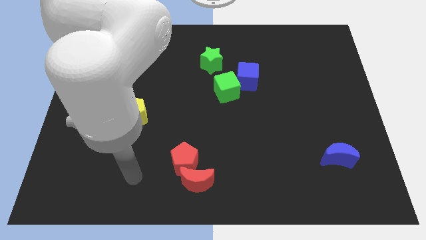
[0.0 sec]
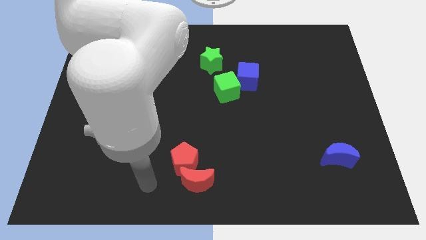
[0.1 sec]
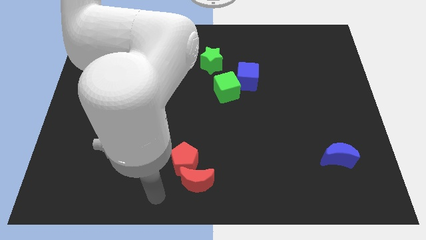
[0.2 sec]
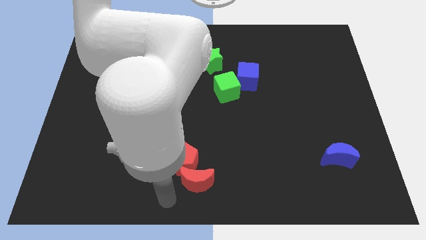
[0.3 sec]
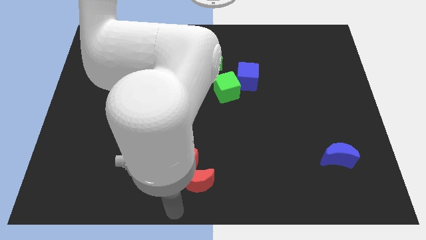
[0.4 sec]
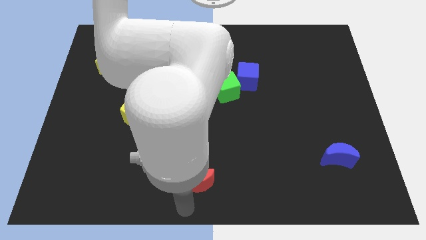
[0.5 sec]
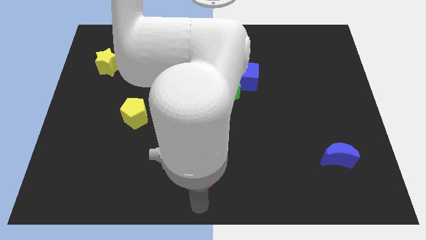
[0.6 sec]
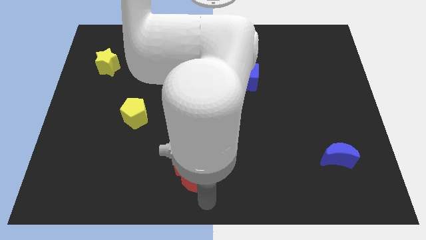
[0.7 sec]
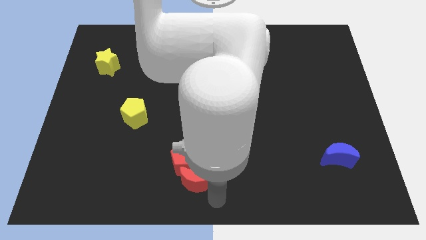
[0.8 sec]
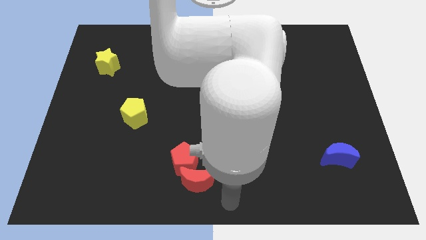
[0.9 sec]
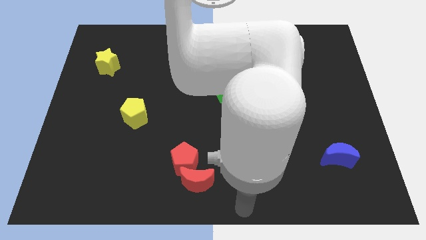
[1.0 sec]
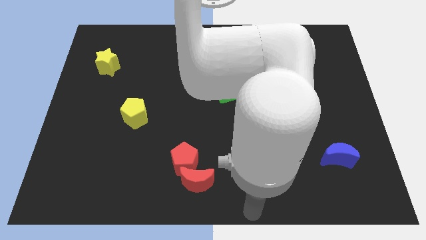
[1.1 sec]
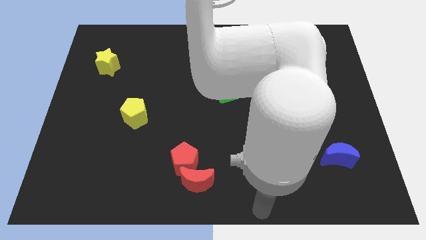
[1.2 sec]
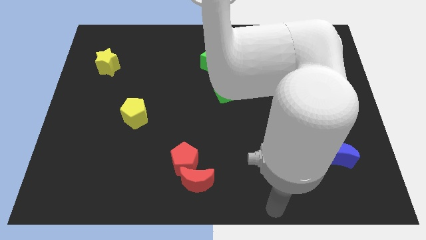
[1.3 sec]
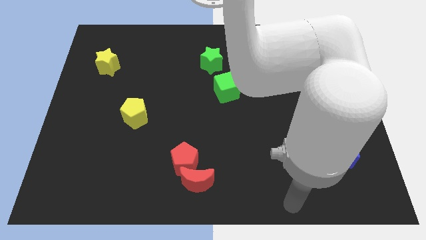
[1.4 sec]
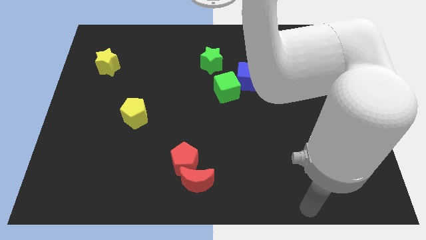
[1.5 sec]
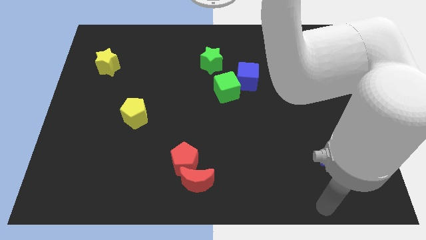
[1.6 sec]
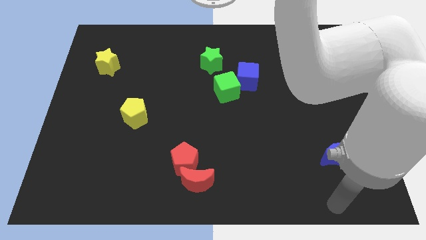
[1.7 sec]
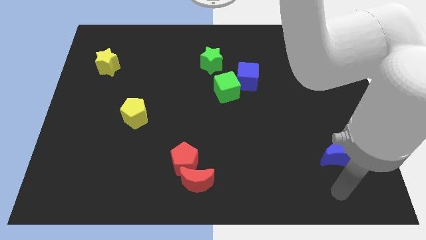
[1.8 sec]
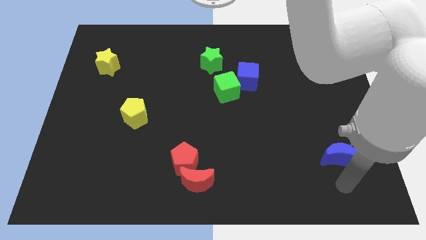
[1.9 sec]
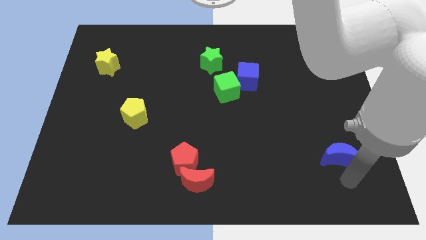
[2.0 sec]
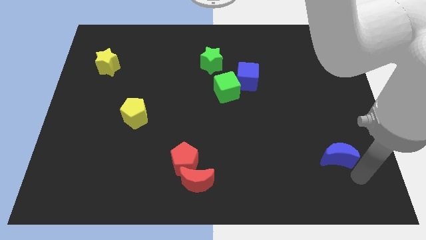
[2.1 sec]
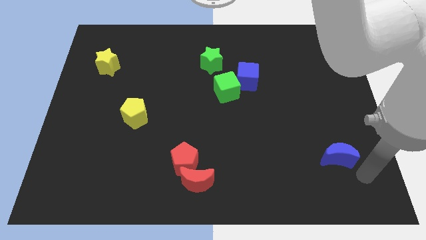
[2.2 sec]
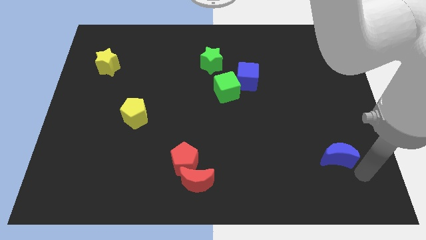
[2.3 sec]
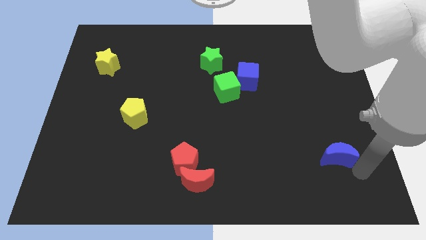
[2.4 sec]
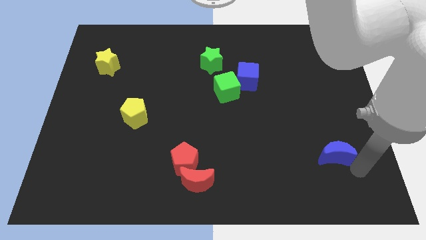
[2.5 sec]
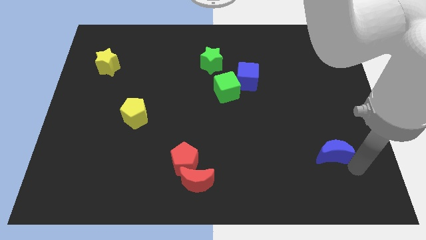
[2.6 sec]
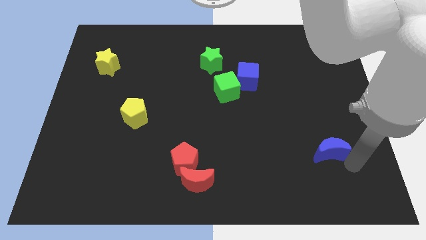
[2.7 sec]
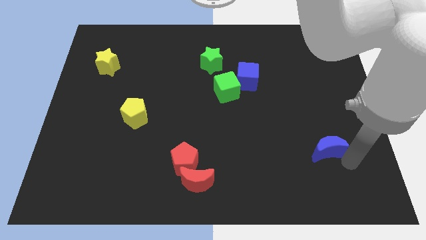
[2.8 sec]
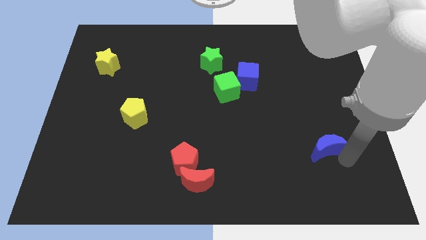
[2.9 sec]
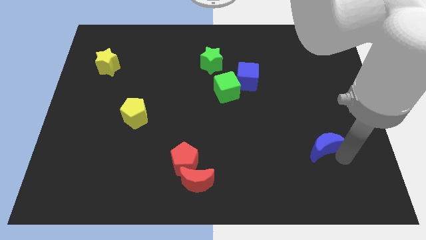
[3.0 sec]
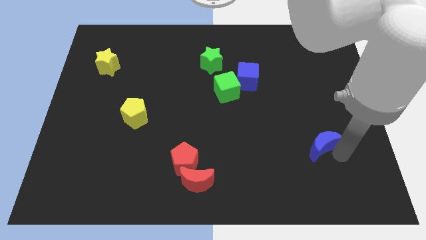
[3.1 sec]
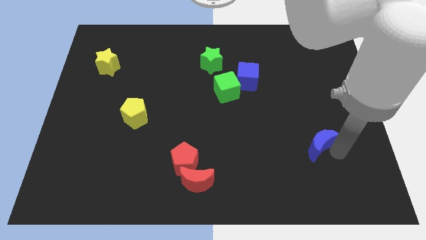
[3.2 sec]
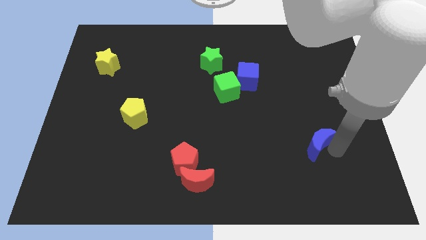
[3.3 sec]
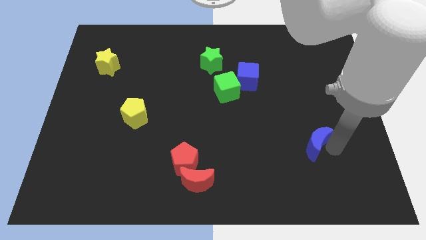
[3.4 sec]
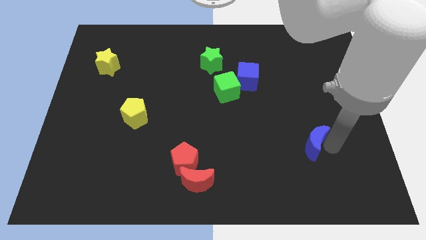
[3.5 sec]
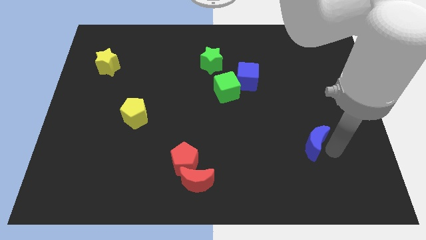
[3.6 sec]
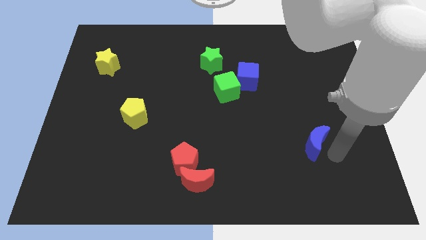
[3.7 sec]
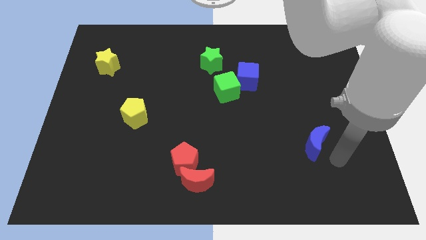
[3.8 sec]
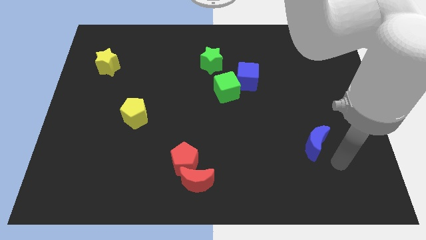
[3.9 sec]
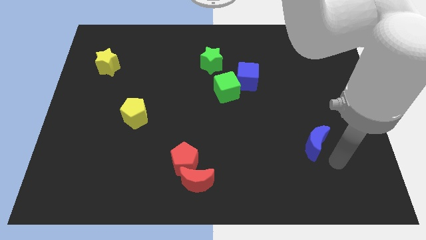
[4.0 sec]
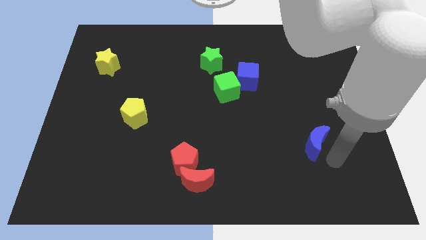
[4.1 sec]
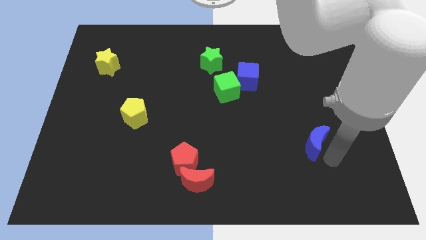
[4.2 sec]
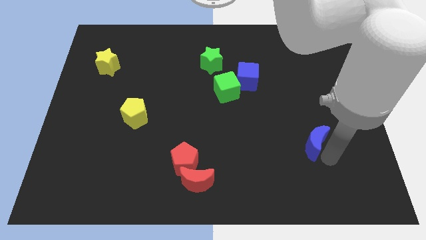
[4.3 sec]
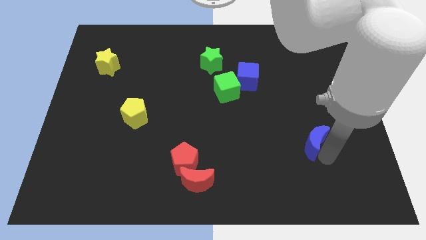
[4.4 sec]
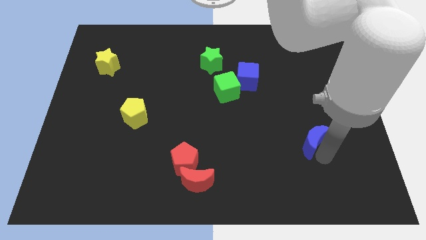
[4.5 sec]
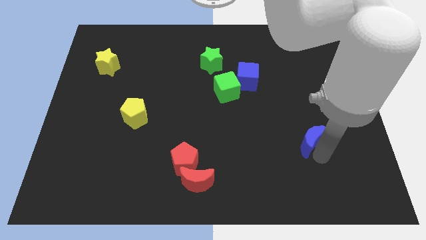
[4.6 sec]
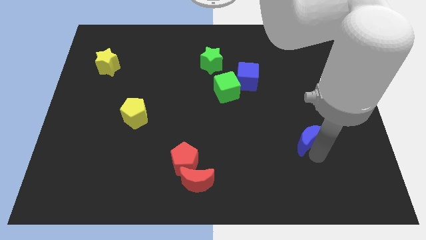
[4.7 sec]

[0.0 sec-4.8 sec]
push the blue moon slightly upwards and left

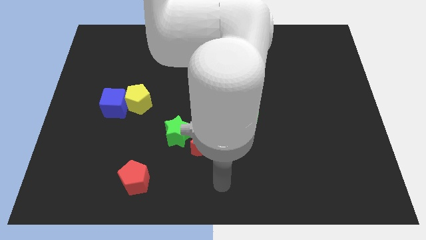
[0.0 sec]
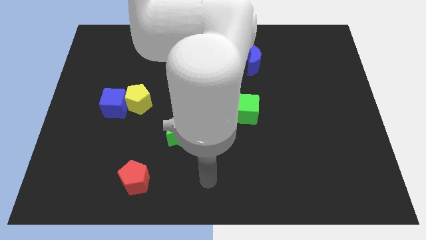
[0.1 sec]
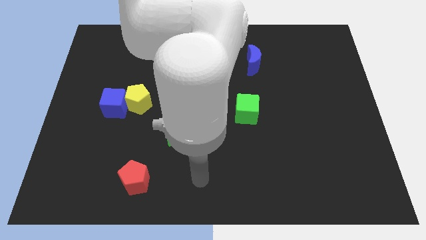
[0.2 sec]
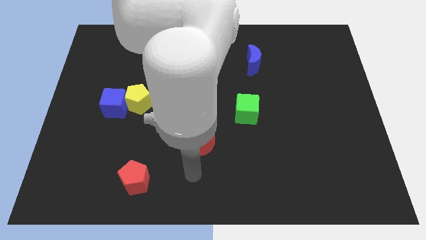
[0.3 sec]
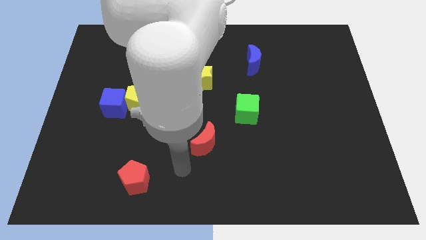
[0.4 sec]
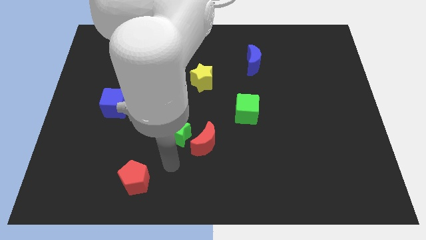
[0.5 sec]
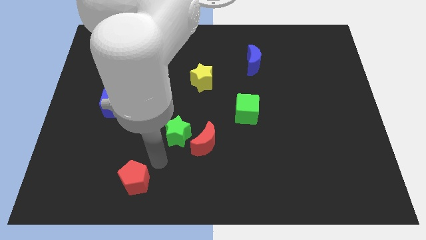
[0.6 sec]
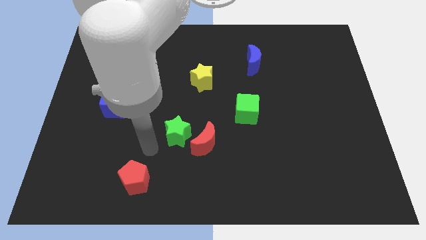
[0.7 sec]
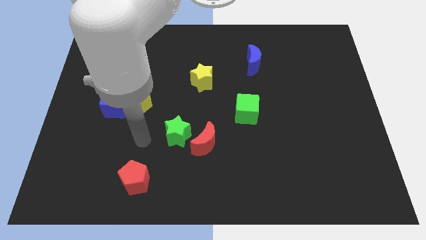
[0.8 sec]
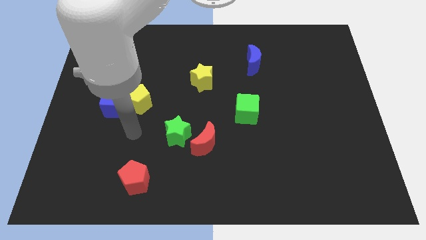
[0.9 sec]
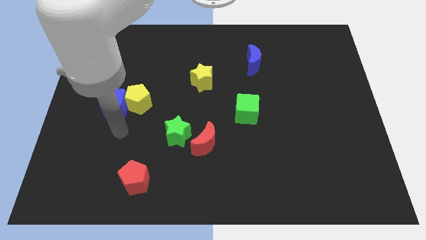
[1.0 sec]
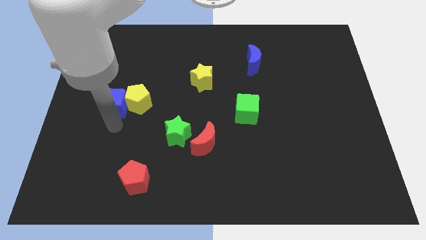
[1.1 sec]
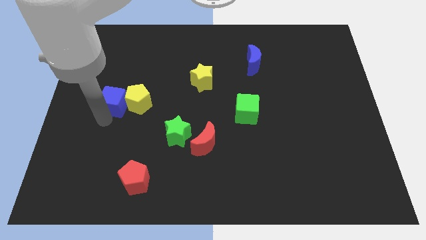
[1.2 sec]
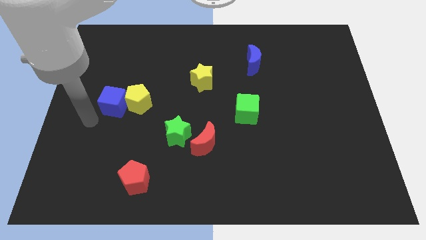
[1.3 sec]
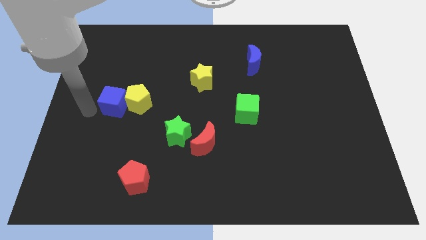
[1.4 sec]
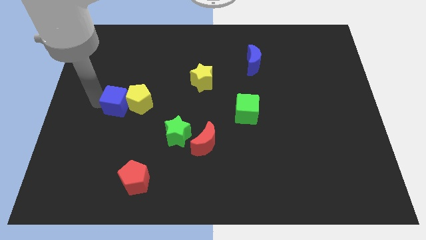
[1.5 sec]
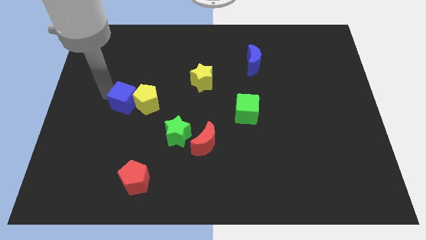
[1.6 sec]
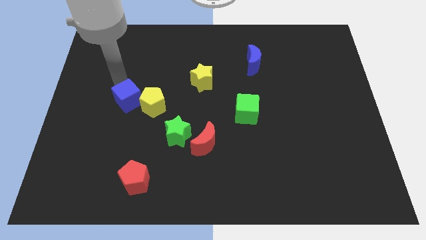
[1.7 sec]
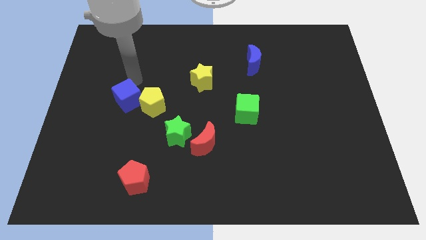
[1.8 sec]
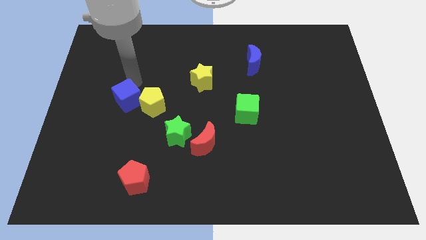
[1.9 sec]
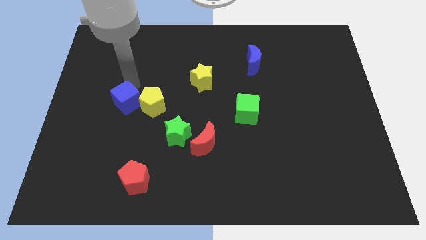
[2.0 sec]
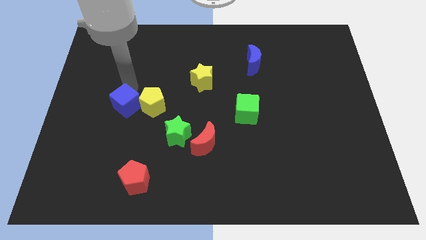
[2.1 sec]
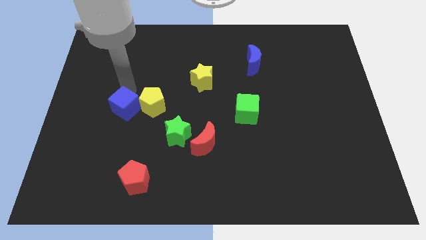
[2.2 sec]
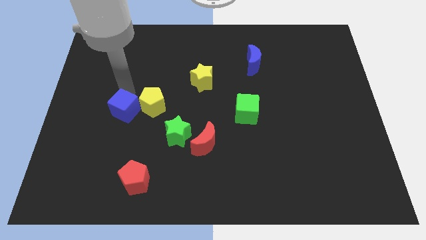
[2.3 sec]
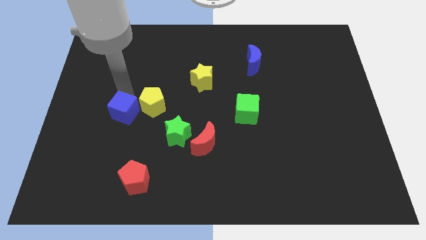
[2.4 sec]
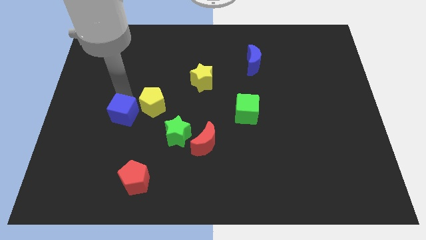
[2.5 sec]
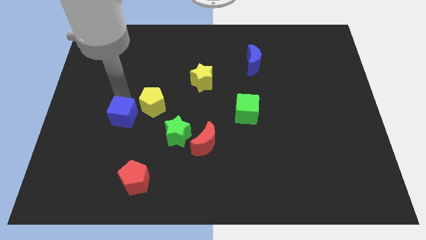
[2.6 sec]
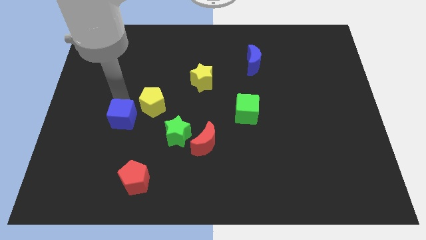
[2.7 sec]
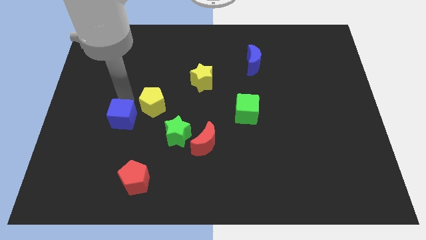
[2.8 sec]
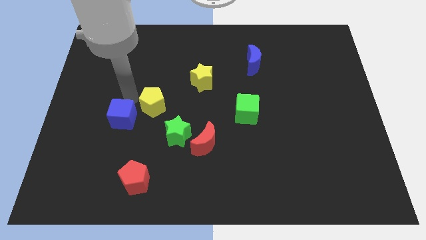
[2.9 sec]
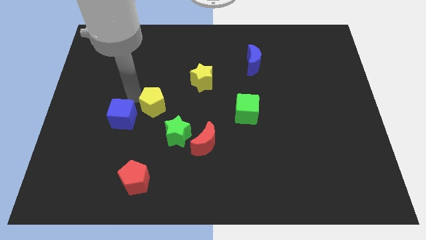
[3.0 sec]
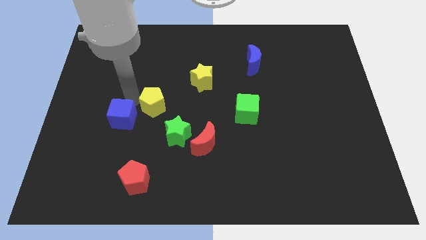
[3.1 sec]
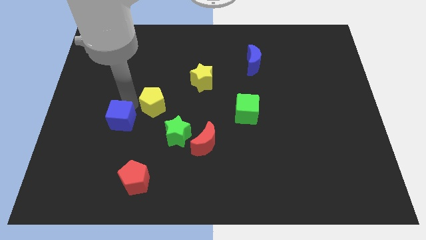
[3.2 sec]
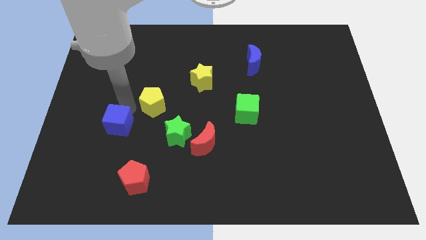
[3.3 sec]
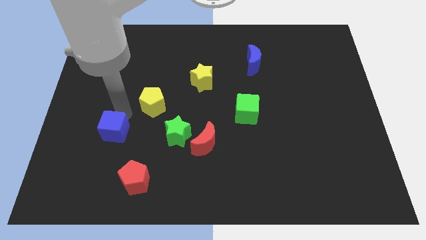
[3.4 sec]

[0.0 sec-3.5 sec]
slightly push the blue cube downwards
